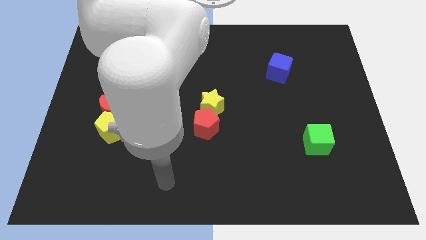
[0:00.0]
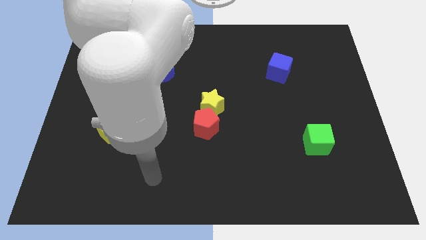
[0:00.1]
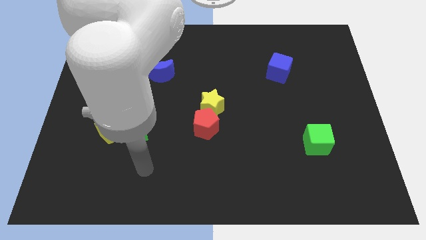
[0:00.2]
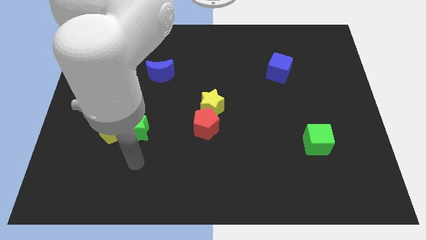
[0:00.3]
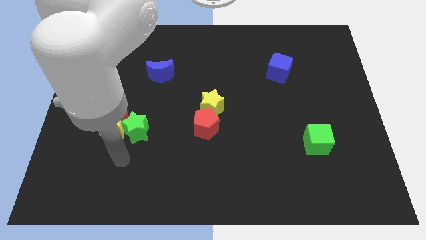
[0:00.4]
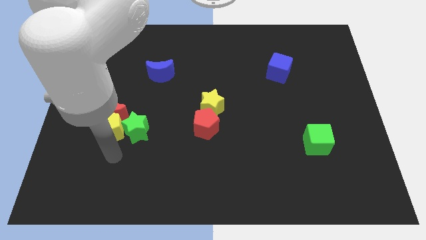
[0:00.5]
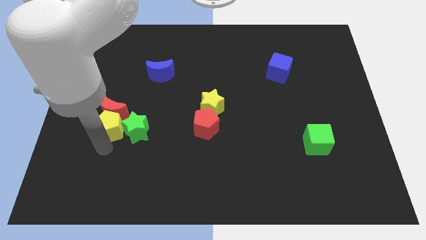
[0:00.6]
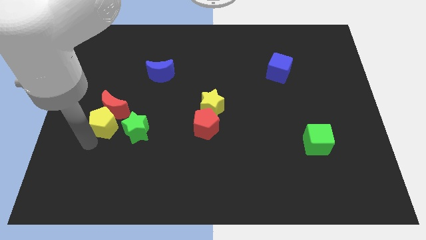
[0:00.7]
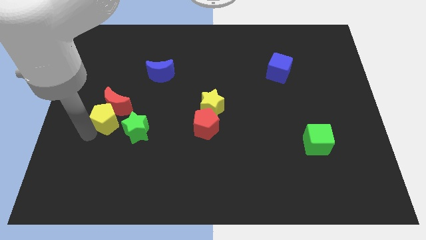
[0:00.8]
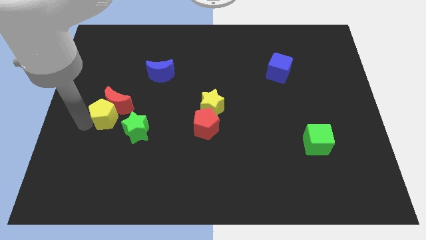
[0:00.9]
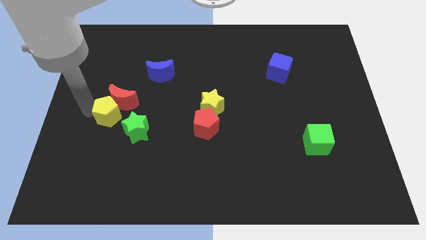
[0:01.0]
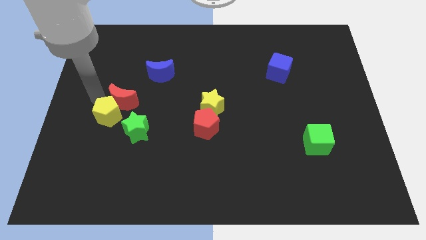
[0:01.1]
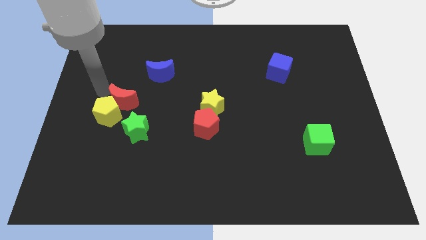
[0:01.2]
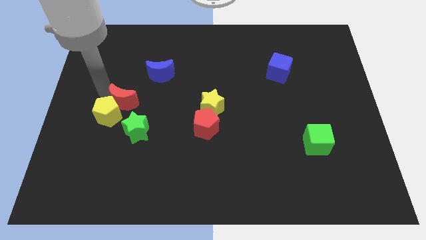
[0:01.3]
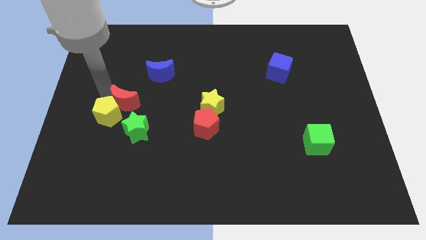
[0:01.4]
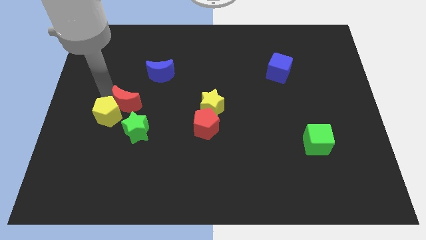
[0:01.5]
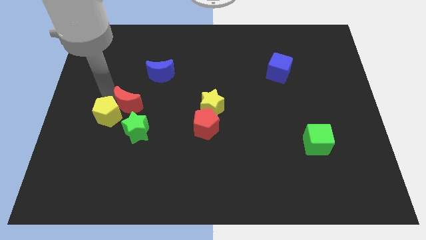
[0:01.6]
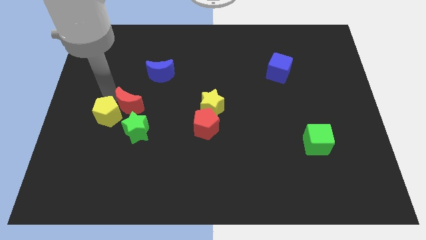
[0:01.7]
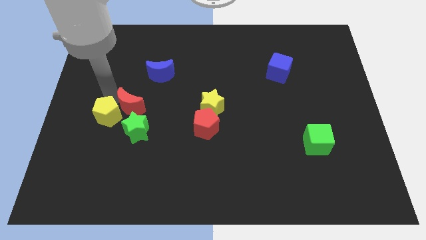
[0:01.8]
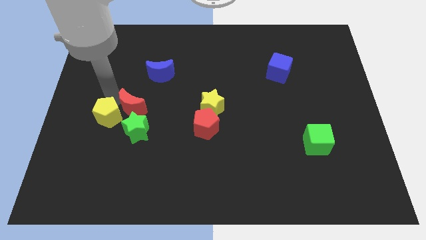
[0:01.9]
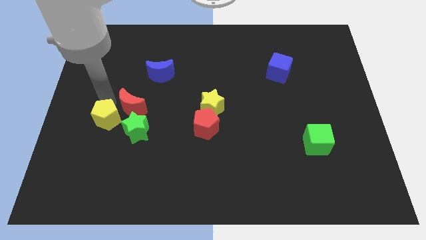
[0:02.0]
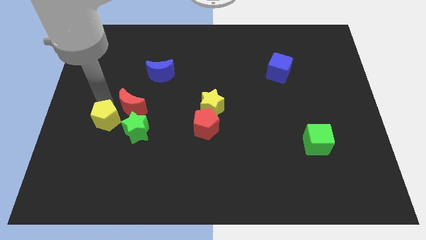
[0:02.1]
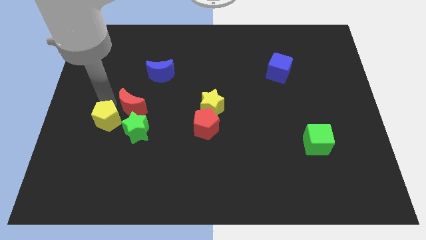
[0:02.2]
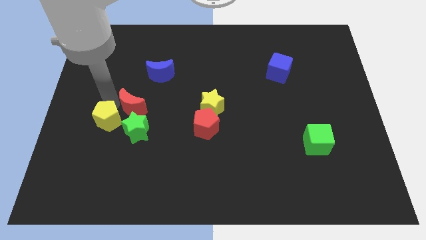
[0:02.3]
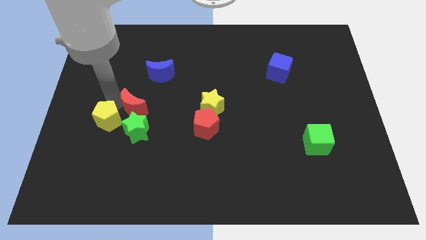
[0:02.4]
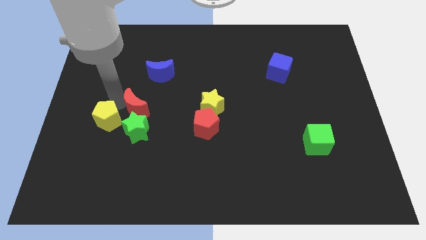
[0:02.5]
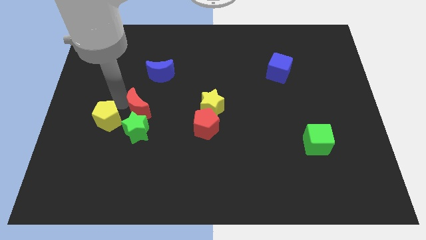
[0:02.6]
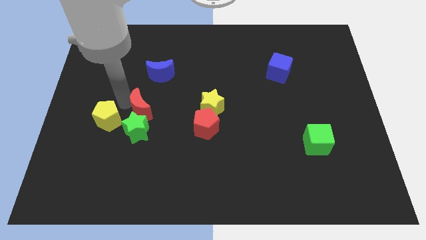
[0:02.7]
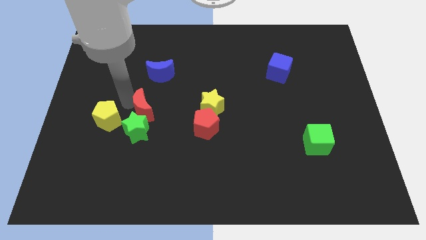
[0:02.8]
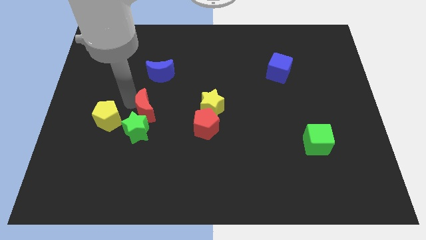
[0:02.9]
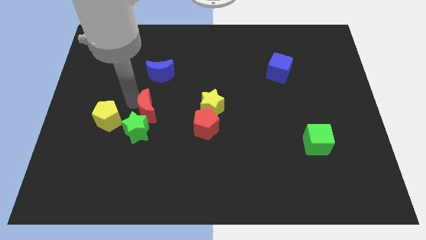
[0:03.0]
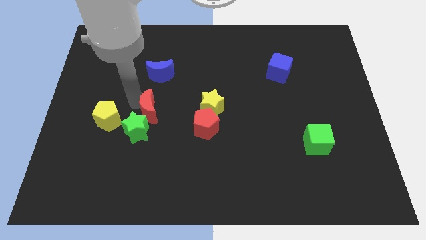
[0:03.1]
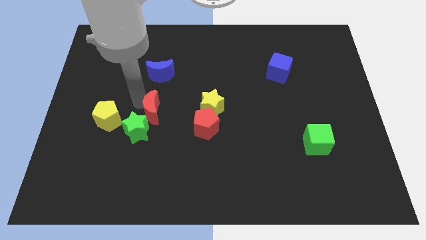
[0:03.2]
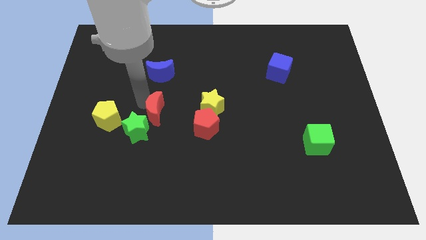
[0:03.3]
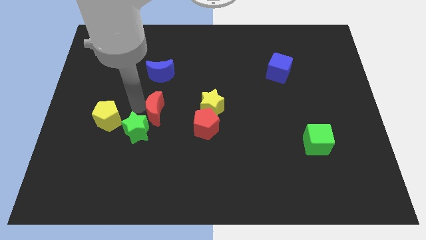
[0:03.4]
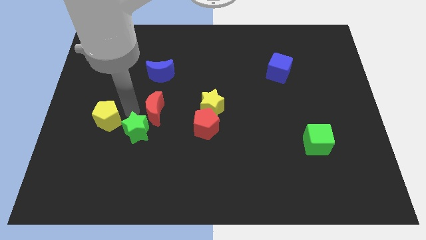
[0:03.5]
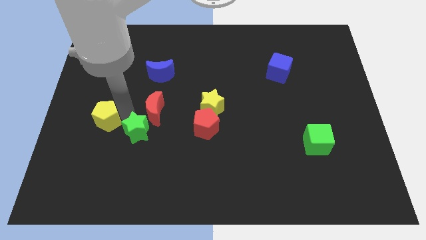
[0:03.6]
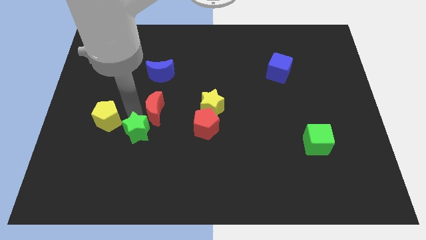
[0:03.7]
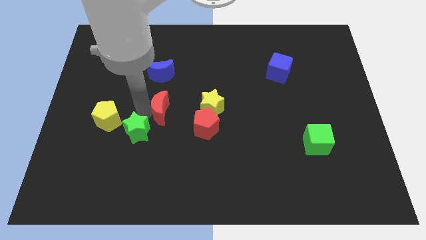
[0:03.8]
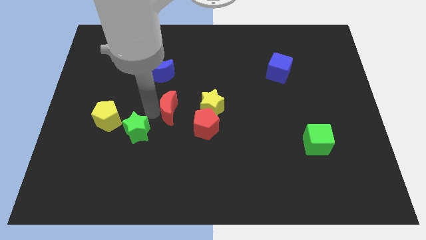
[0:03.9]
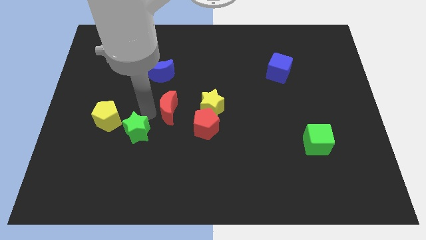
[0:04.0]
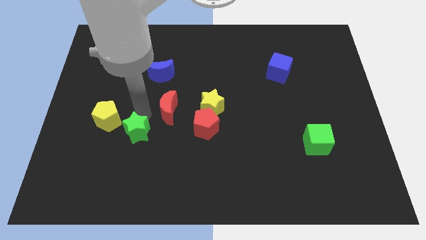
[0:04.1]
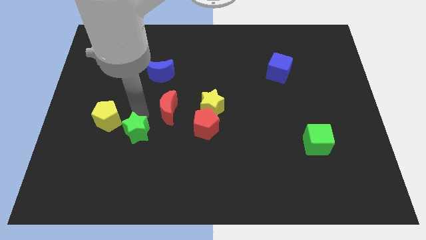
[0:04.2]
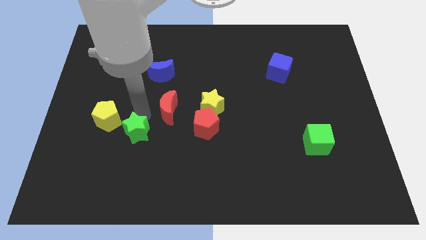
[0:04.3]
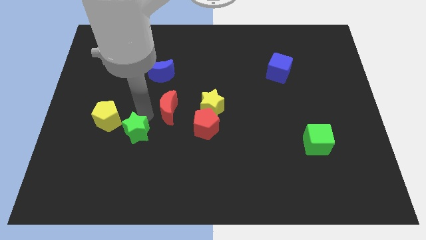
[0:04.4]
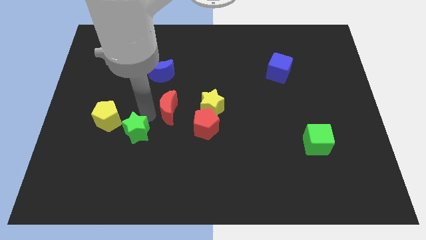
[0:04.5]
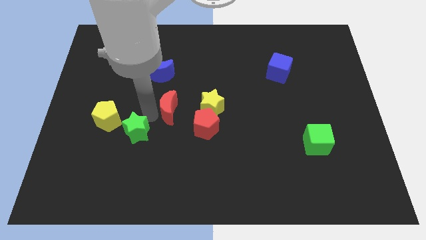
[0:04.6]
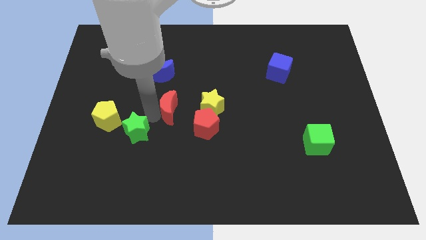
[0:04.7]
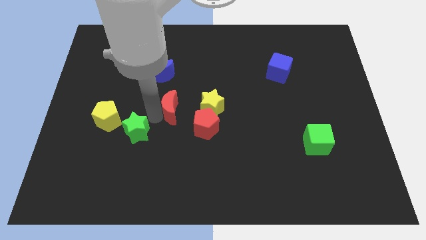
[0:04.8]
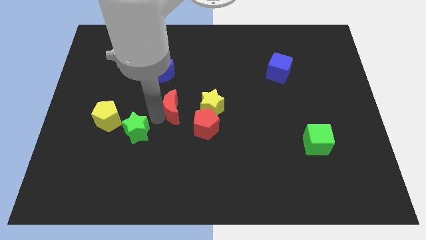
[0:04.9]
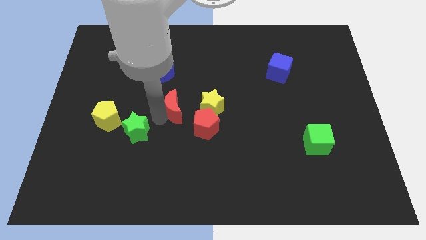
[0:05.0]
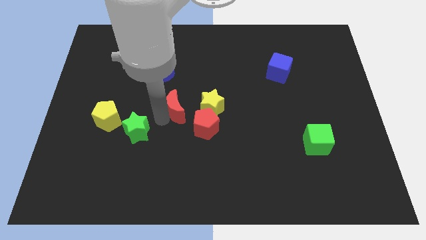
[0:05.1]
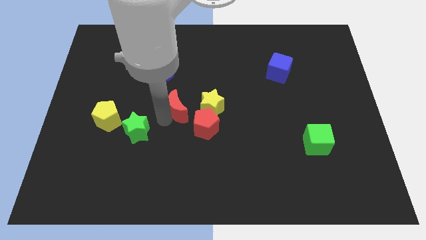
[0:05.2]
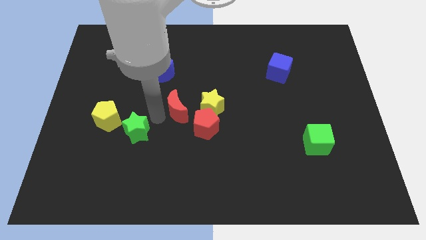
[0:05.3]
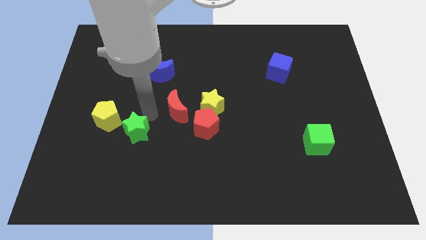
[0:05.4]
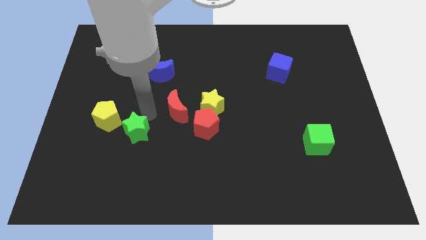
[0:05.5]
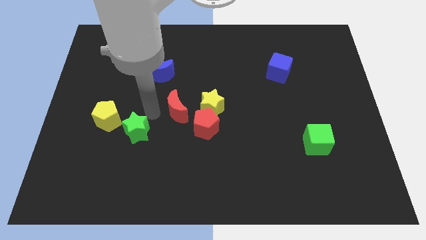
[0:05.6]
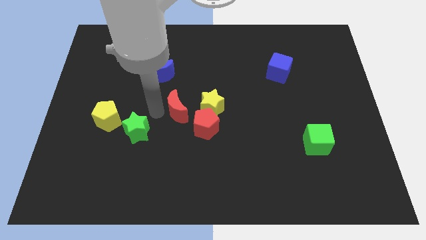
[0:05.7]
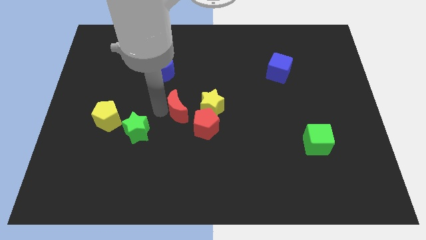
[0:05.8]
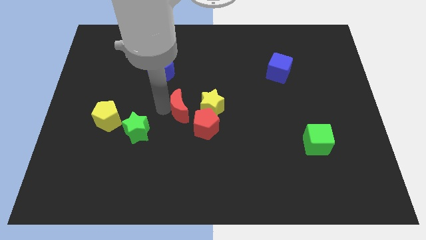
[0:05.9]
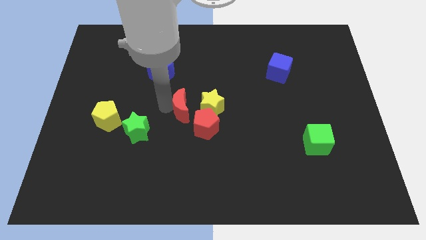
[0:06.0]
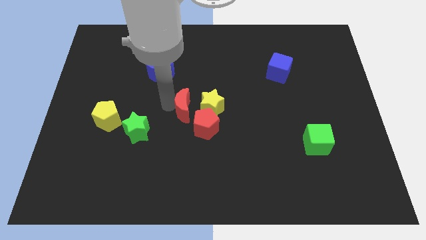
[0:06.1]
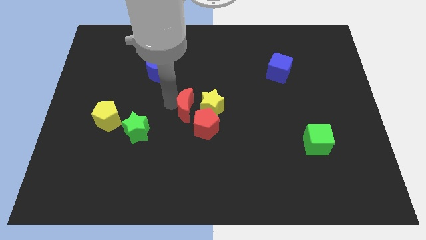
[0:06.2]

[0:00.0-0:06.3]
put the red moon next to the yellow star

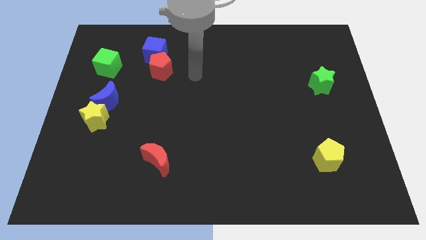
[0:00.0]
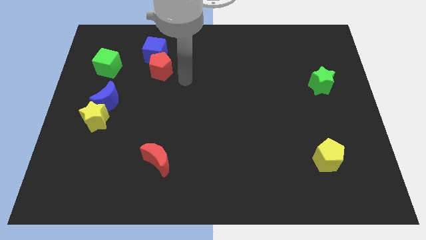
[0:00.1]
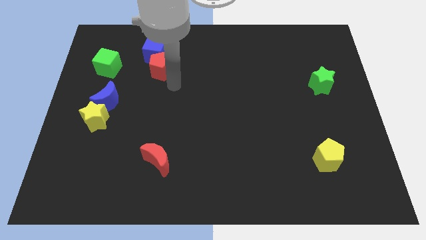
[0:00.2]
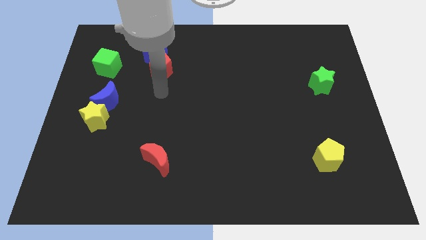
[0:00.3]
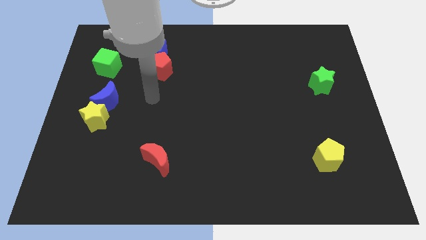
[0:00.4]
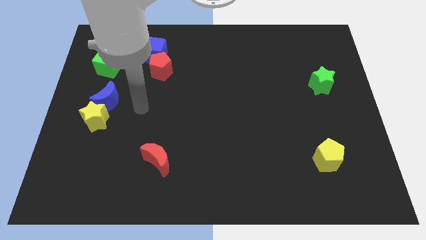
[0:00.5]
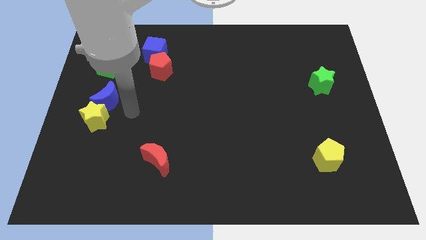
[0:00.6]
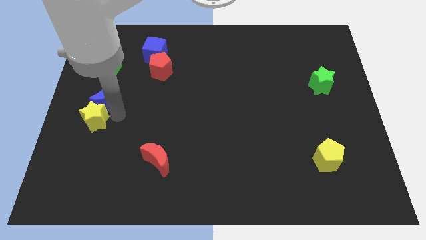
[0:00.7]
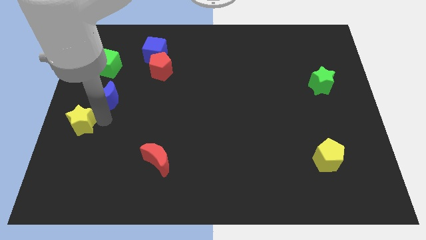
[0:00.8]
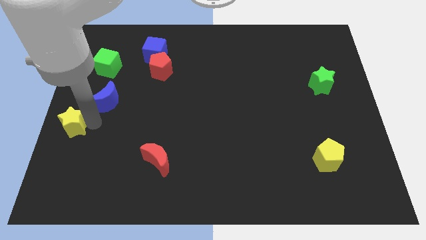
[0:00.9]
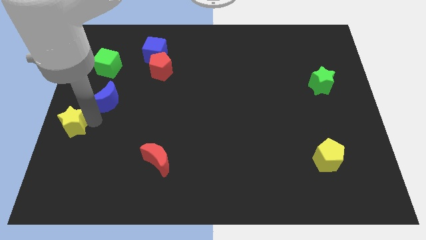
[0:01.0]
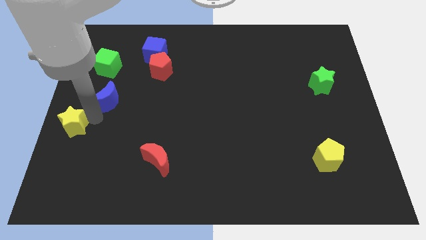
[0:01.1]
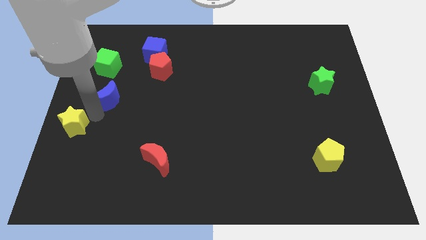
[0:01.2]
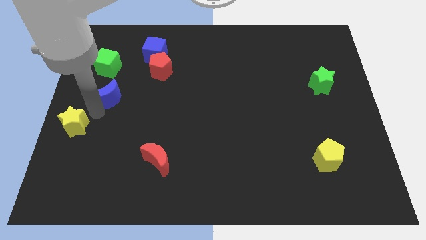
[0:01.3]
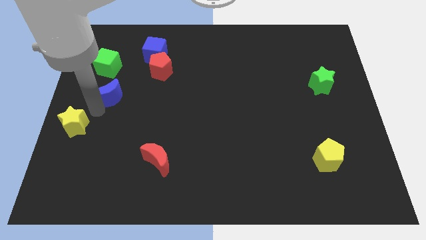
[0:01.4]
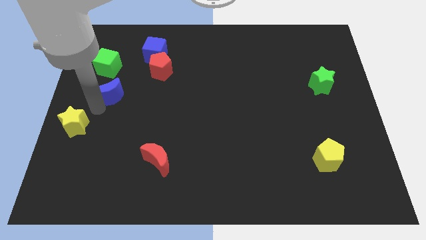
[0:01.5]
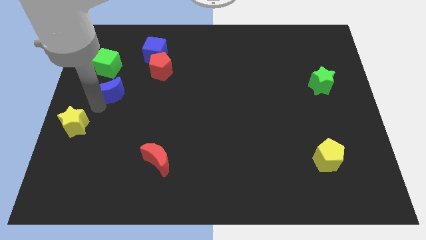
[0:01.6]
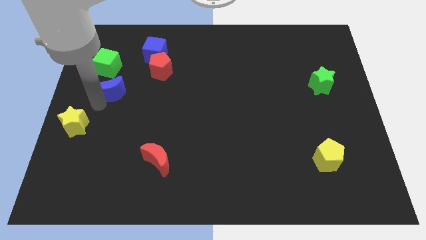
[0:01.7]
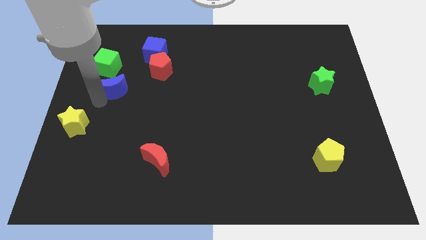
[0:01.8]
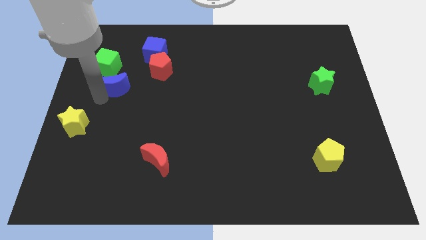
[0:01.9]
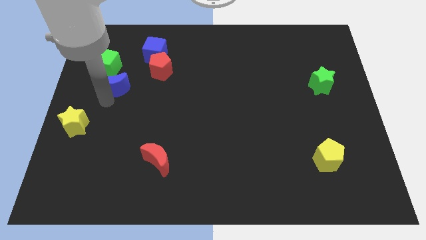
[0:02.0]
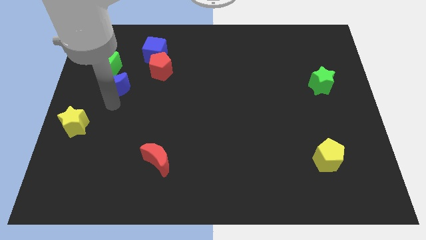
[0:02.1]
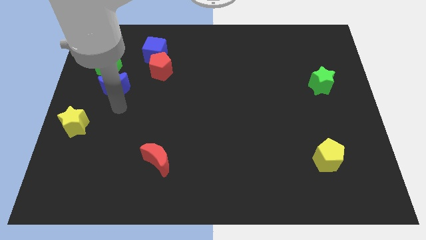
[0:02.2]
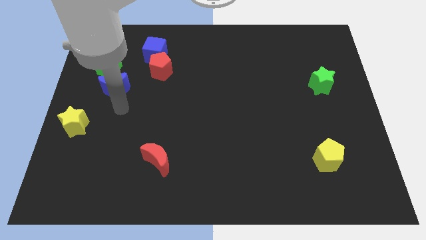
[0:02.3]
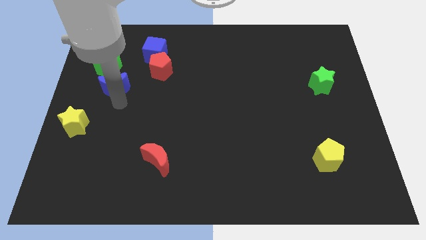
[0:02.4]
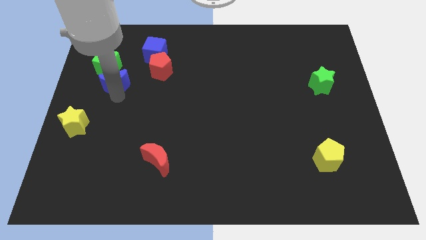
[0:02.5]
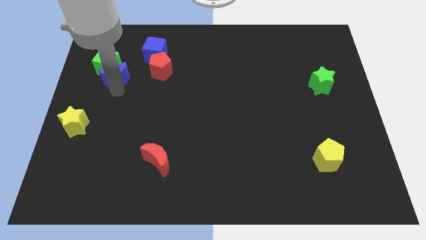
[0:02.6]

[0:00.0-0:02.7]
push the blue moon next to the green cube
